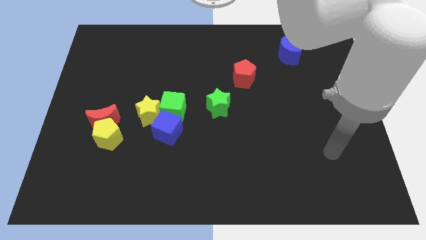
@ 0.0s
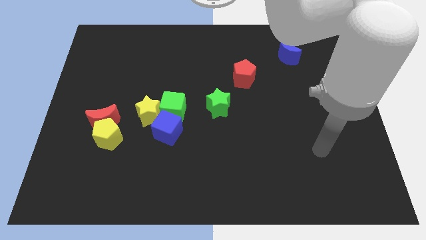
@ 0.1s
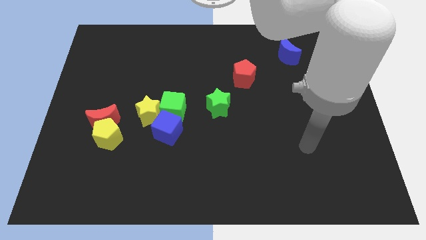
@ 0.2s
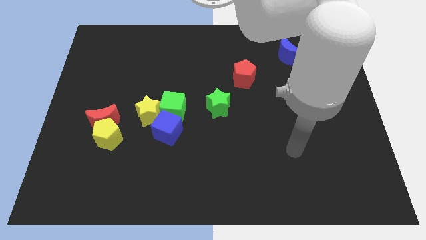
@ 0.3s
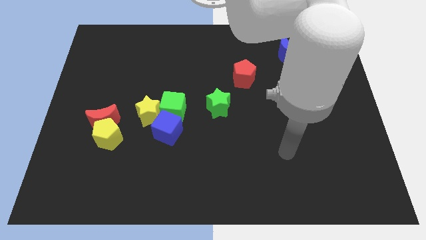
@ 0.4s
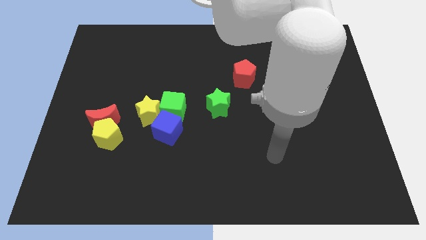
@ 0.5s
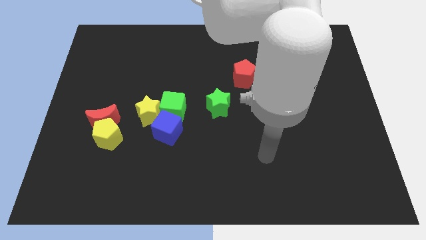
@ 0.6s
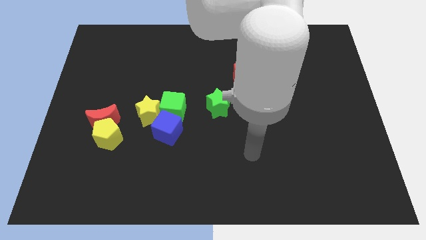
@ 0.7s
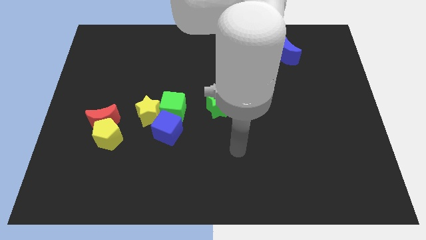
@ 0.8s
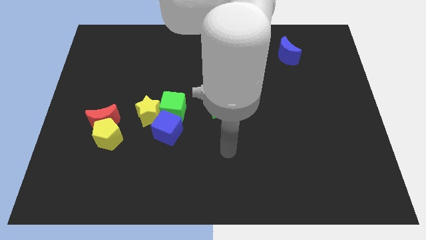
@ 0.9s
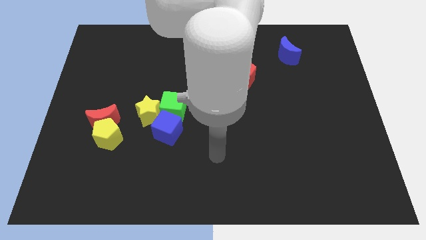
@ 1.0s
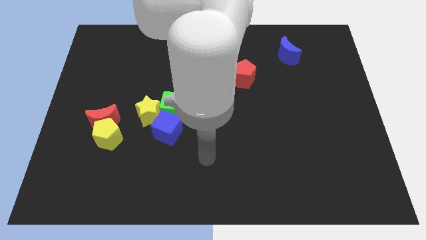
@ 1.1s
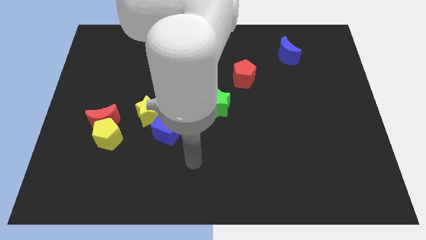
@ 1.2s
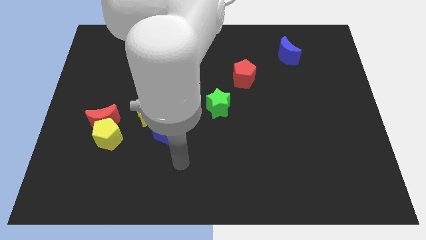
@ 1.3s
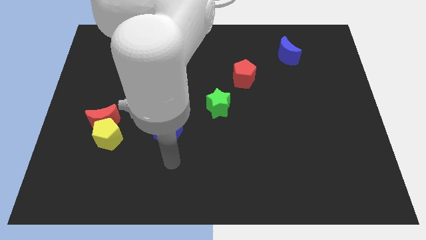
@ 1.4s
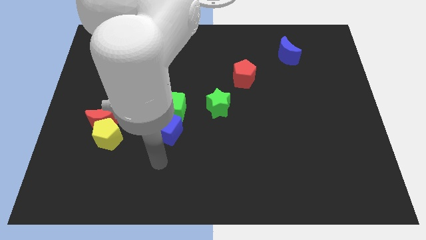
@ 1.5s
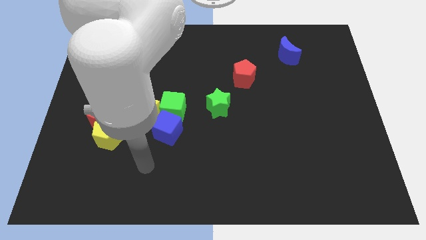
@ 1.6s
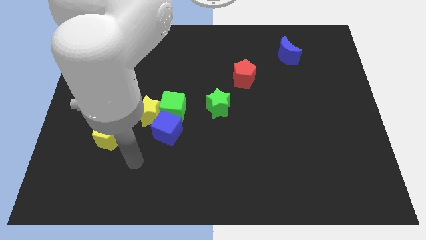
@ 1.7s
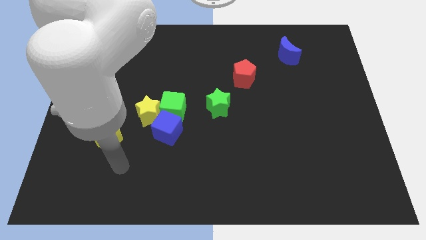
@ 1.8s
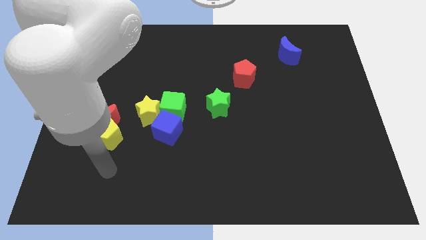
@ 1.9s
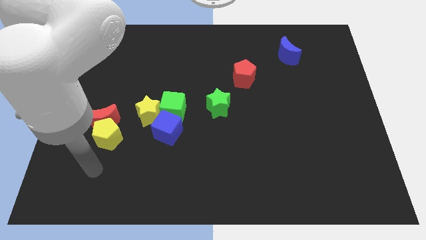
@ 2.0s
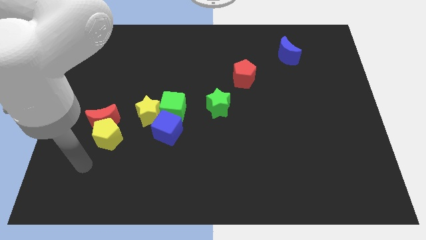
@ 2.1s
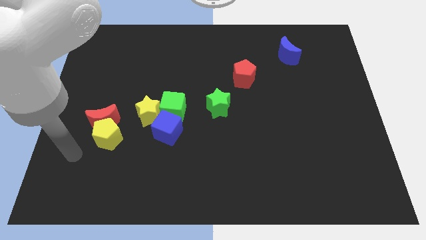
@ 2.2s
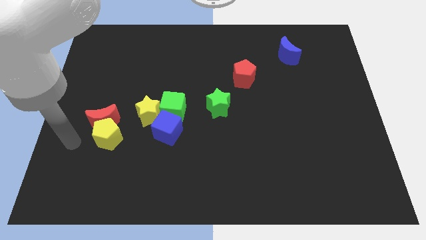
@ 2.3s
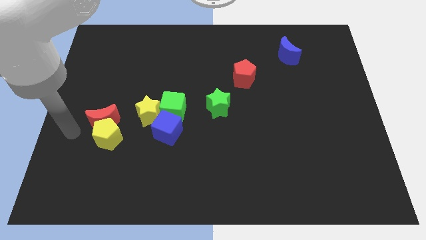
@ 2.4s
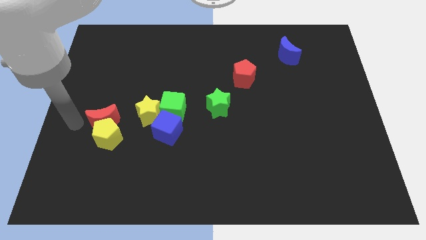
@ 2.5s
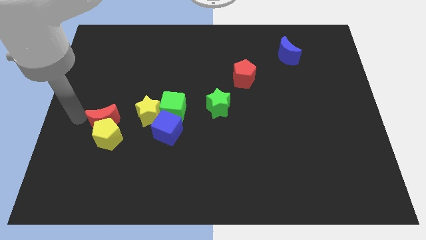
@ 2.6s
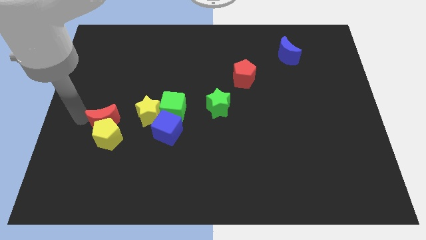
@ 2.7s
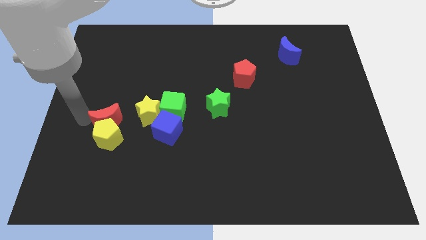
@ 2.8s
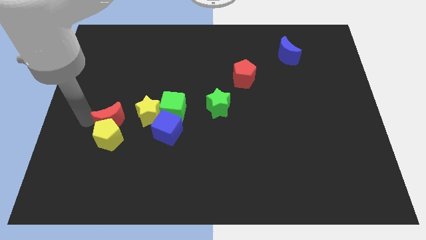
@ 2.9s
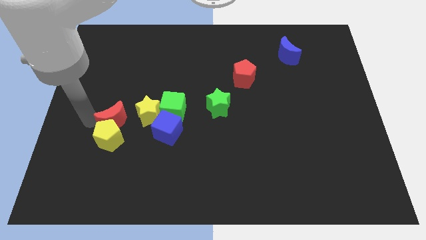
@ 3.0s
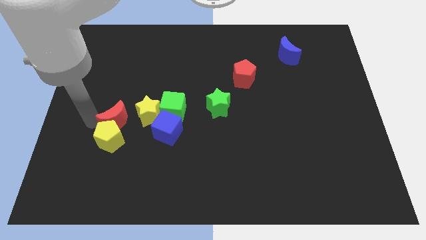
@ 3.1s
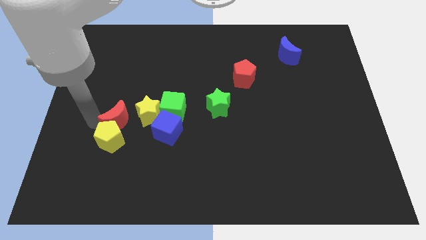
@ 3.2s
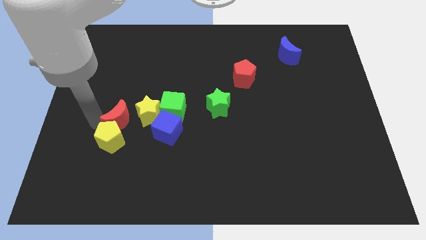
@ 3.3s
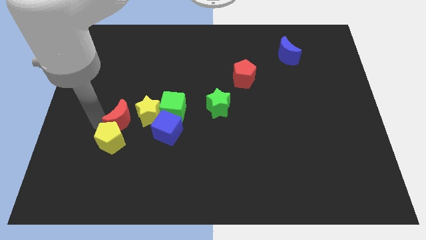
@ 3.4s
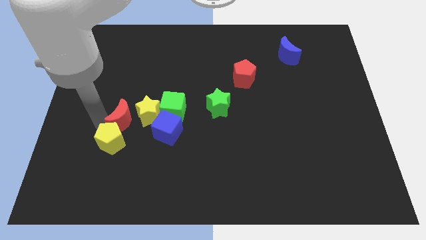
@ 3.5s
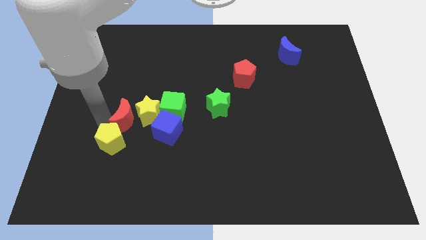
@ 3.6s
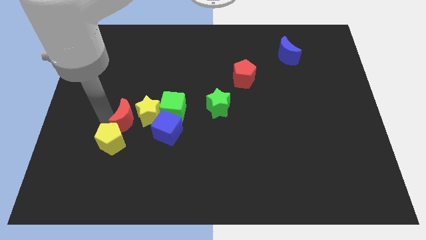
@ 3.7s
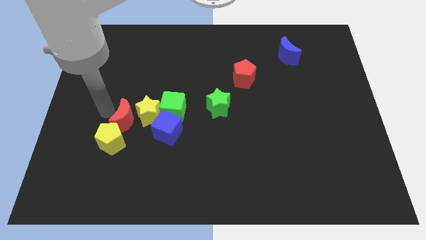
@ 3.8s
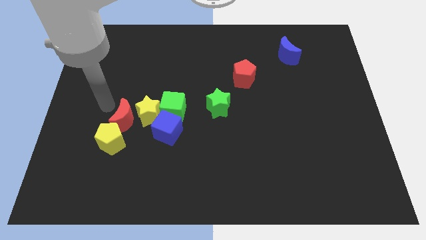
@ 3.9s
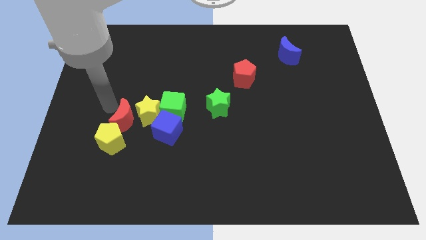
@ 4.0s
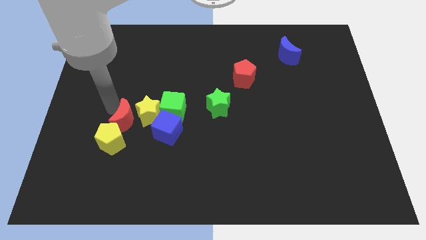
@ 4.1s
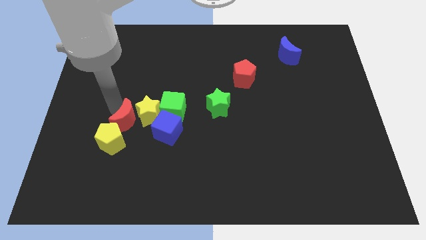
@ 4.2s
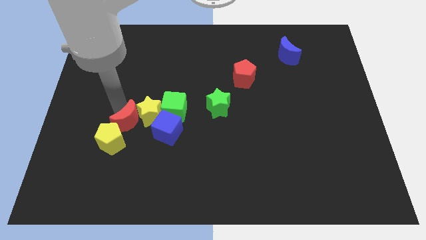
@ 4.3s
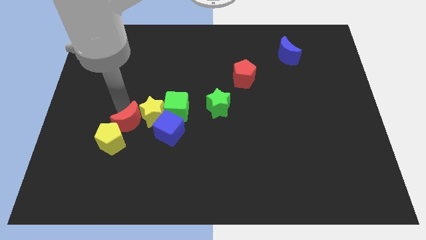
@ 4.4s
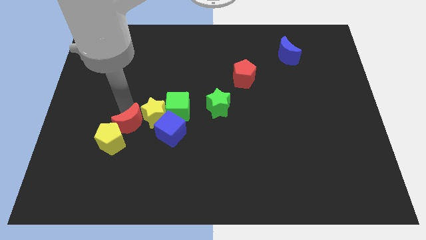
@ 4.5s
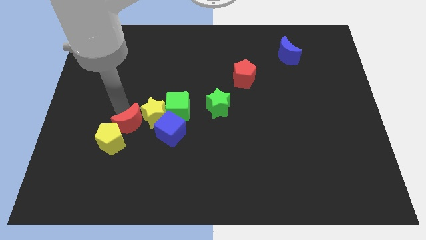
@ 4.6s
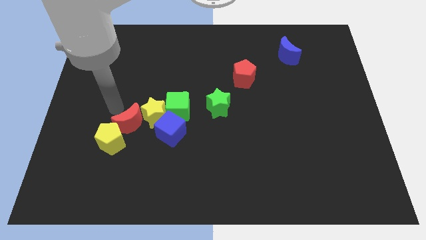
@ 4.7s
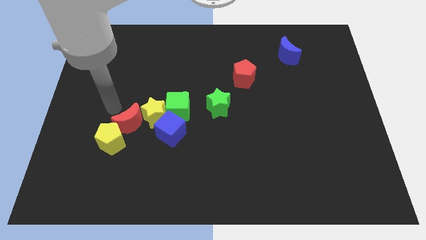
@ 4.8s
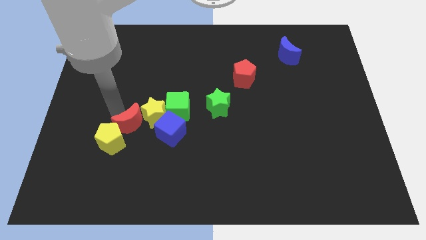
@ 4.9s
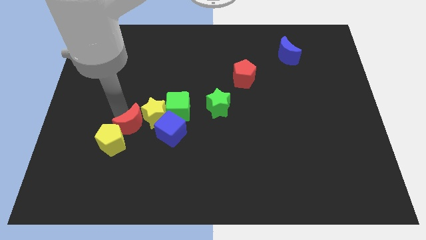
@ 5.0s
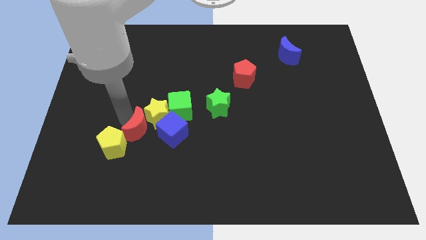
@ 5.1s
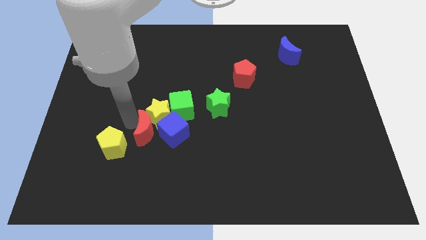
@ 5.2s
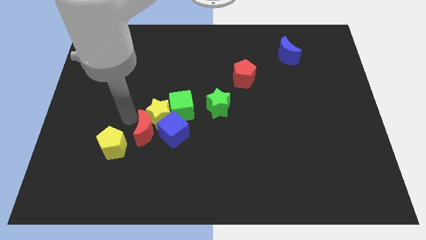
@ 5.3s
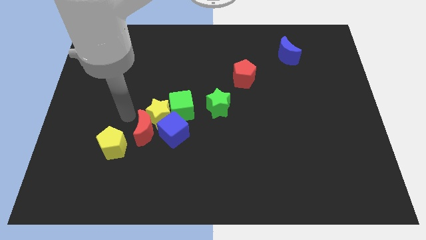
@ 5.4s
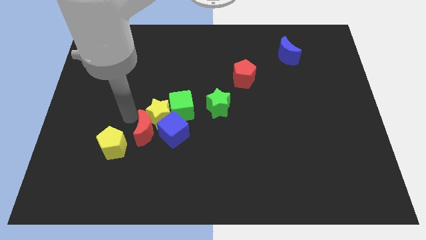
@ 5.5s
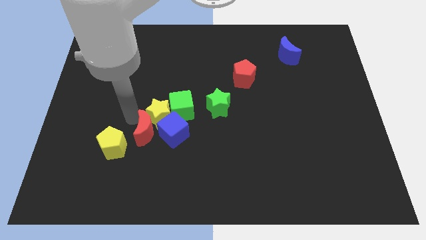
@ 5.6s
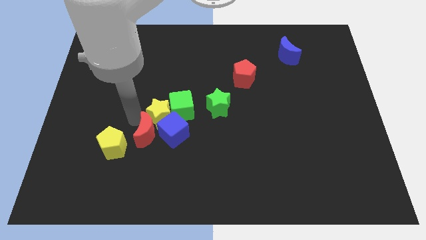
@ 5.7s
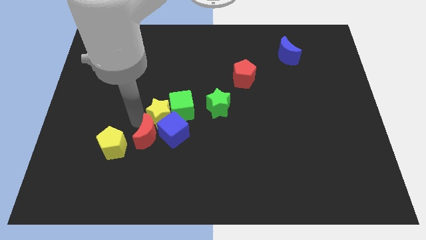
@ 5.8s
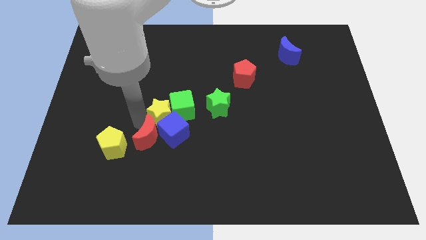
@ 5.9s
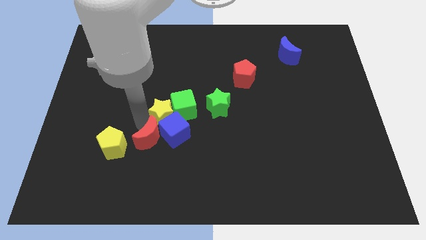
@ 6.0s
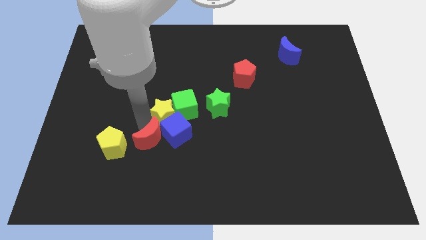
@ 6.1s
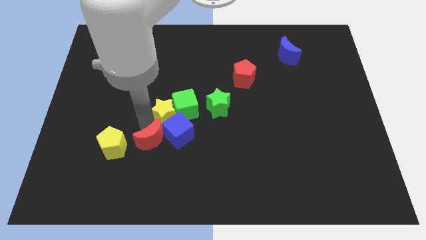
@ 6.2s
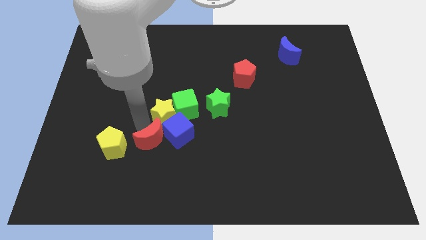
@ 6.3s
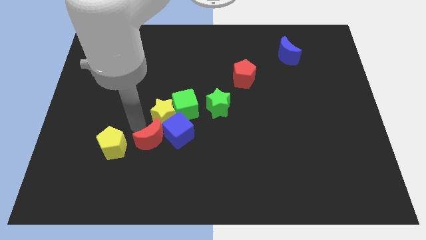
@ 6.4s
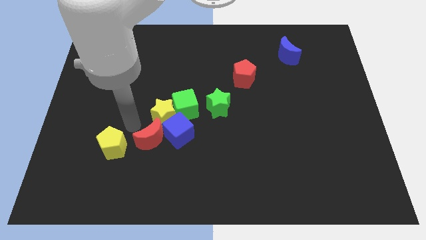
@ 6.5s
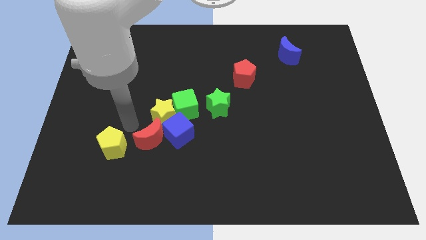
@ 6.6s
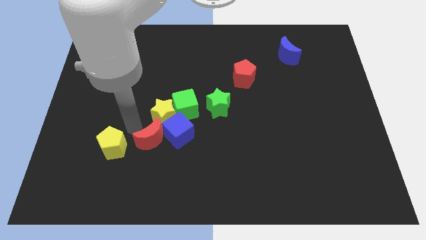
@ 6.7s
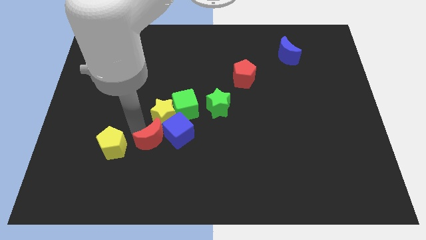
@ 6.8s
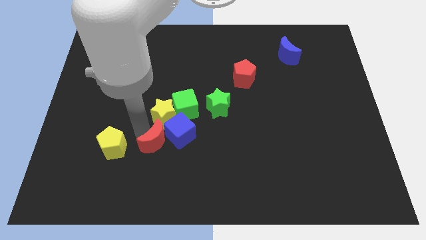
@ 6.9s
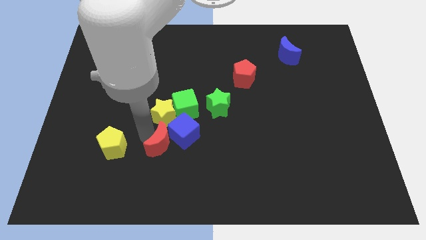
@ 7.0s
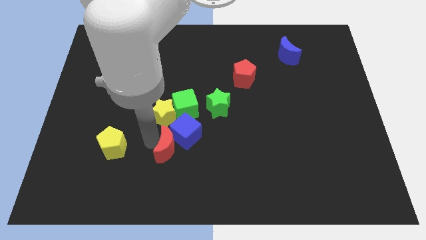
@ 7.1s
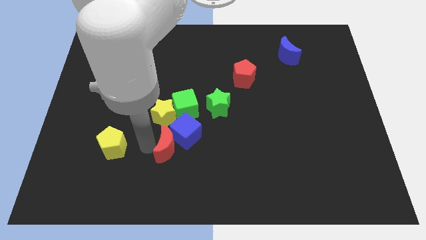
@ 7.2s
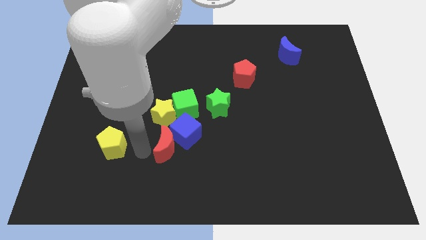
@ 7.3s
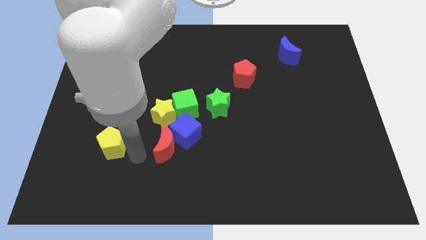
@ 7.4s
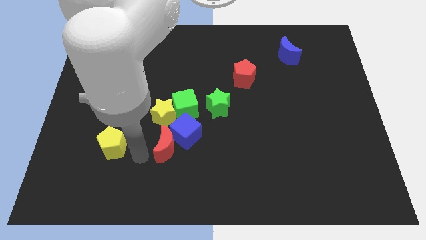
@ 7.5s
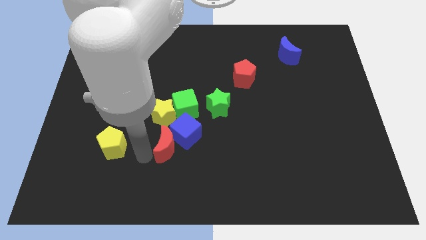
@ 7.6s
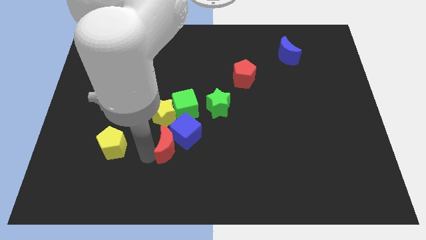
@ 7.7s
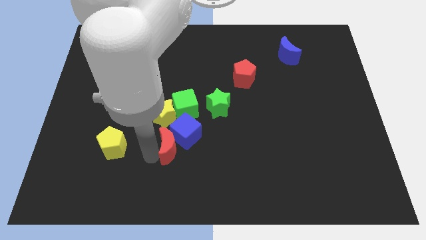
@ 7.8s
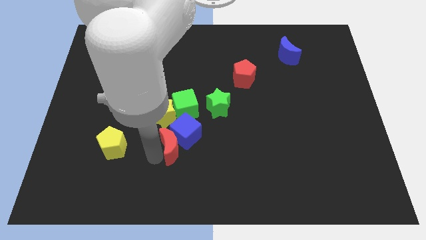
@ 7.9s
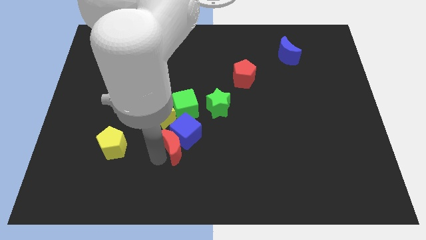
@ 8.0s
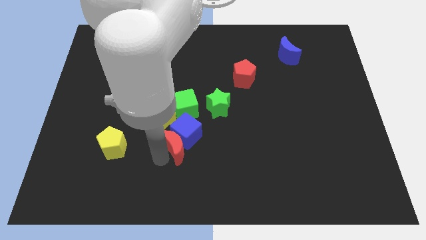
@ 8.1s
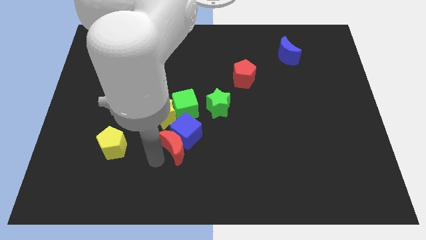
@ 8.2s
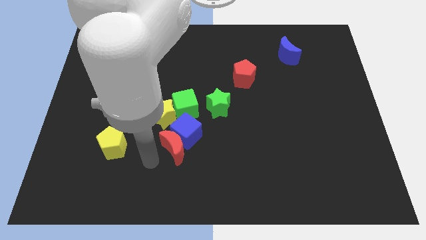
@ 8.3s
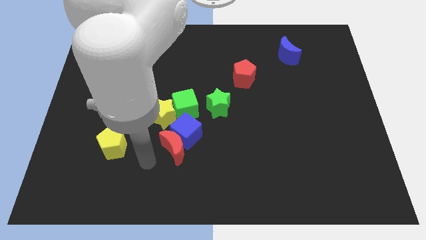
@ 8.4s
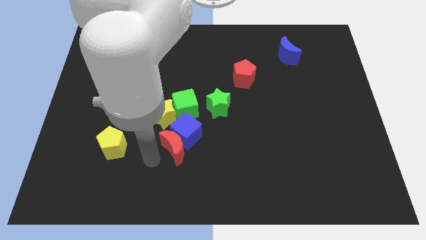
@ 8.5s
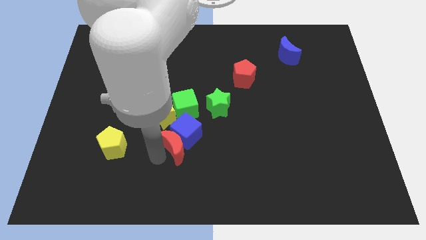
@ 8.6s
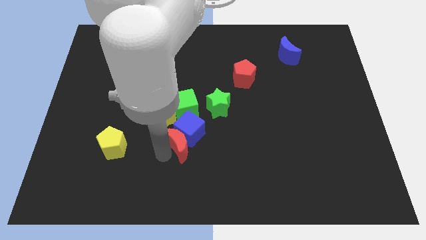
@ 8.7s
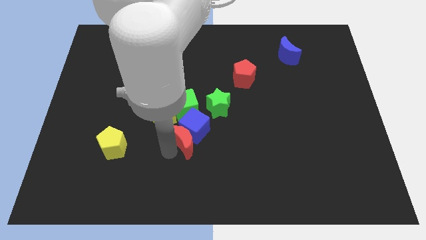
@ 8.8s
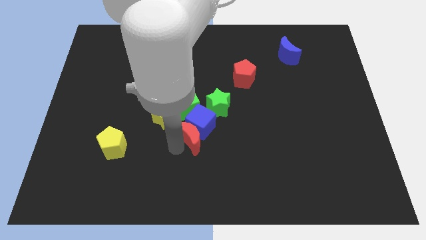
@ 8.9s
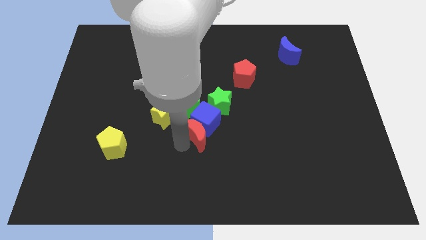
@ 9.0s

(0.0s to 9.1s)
move the red moon to the right
